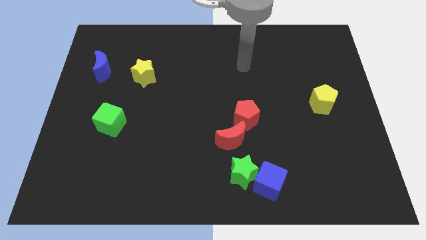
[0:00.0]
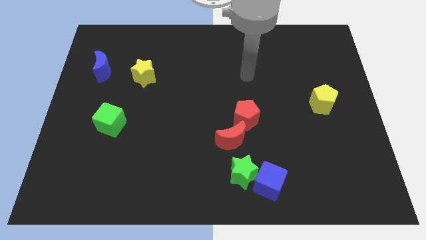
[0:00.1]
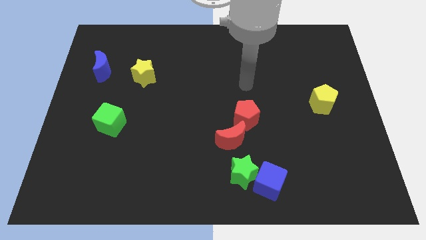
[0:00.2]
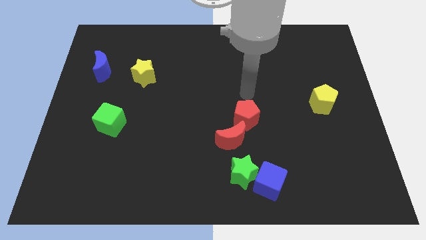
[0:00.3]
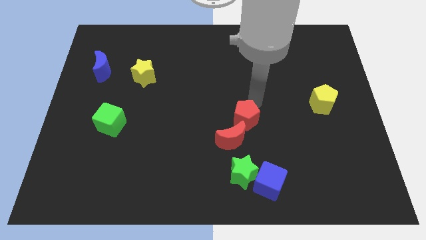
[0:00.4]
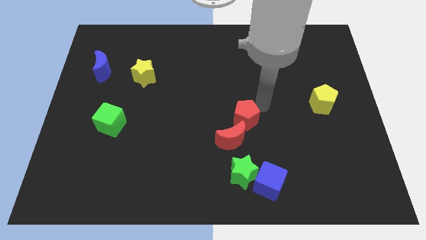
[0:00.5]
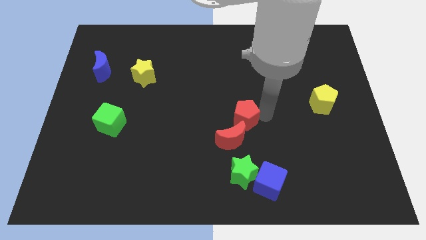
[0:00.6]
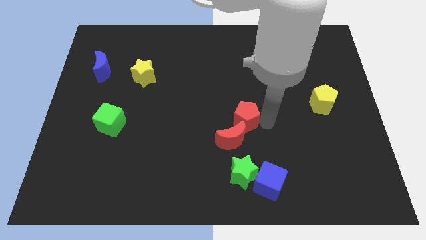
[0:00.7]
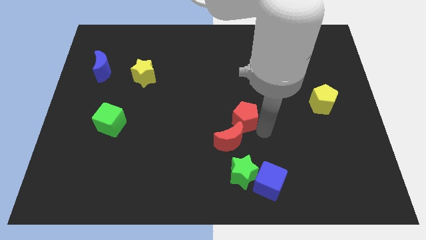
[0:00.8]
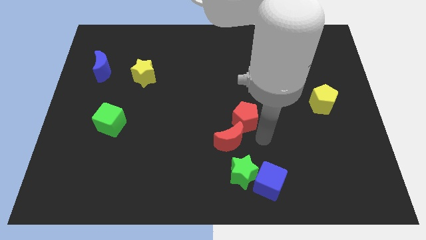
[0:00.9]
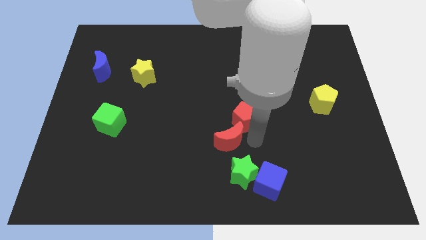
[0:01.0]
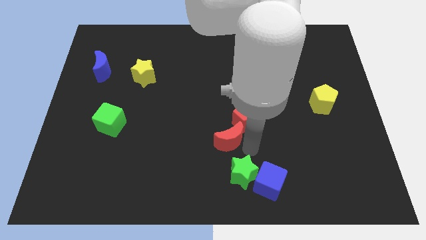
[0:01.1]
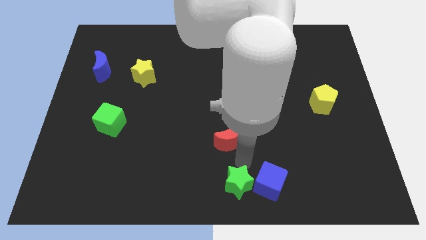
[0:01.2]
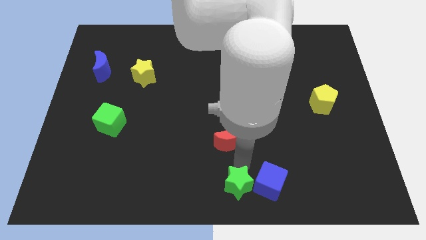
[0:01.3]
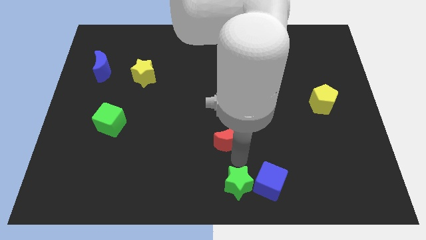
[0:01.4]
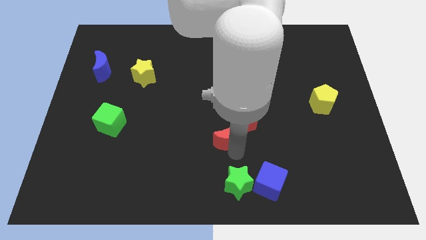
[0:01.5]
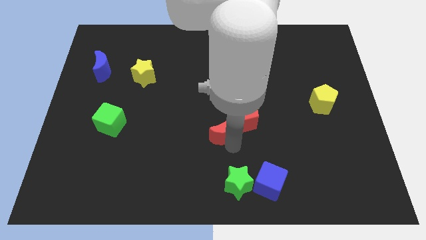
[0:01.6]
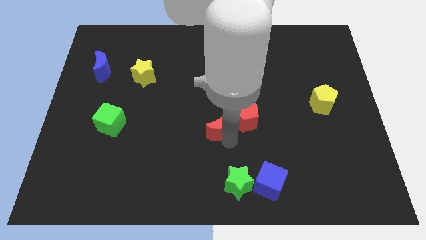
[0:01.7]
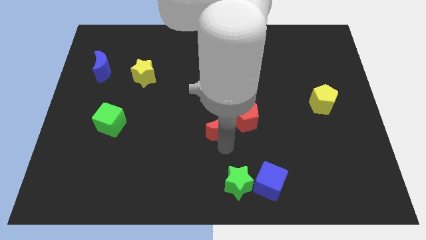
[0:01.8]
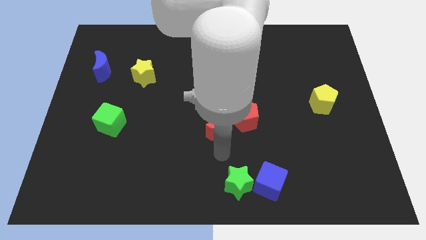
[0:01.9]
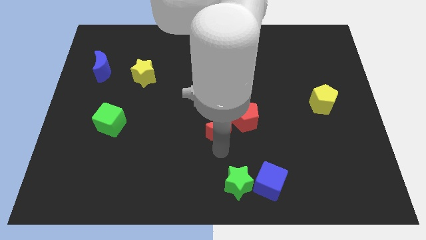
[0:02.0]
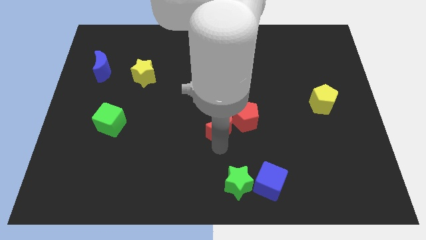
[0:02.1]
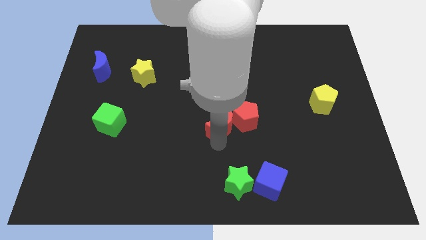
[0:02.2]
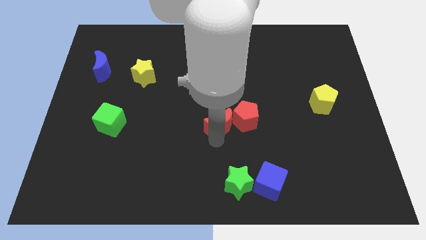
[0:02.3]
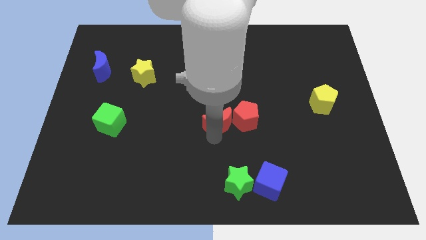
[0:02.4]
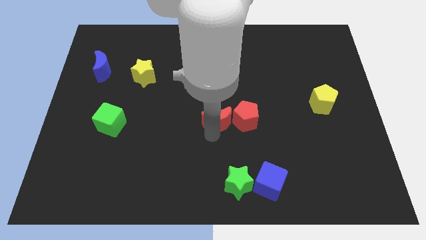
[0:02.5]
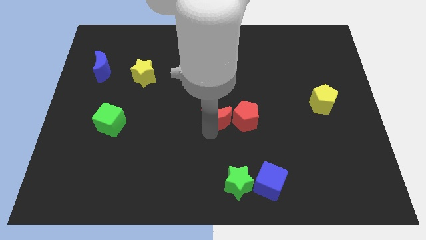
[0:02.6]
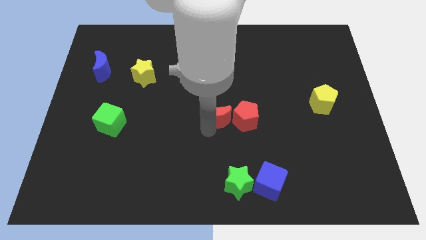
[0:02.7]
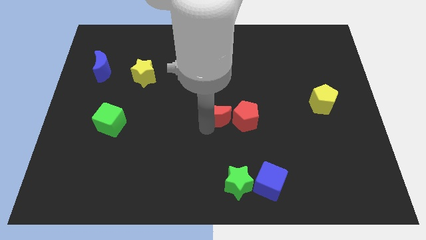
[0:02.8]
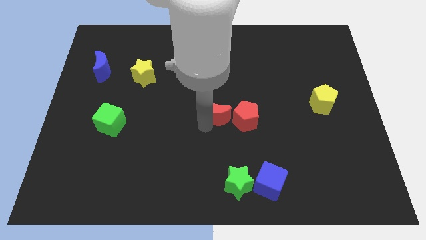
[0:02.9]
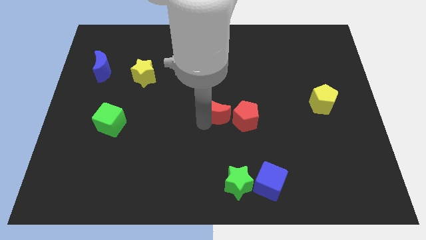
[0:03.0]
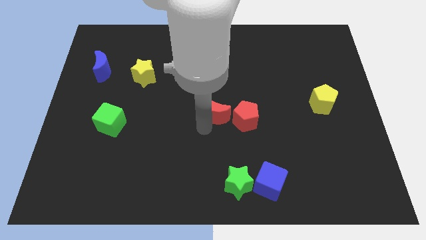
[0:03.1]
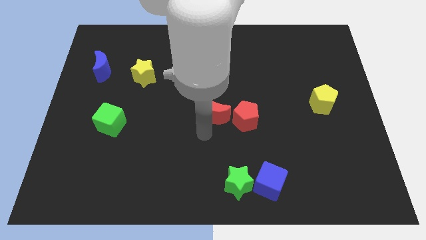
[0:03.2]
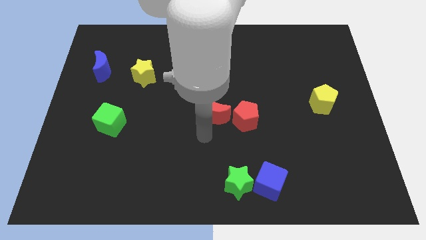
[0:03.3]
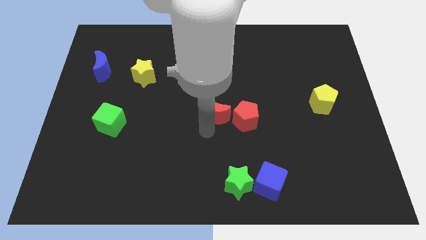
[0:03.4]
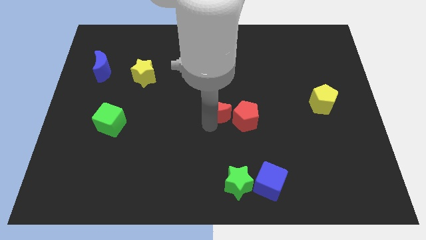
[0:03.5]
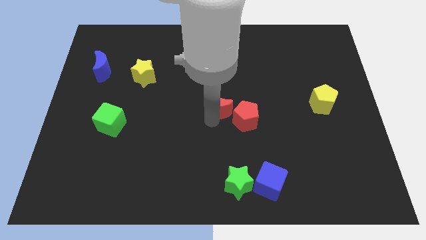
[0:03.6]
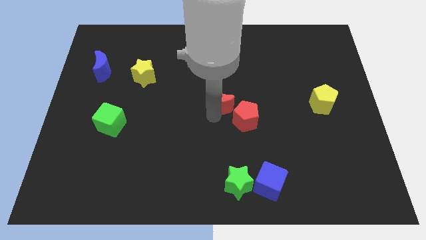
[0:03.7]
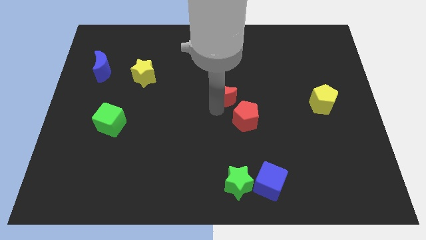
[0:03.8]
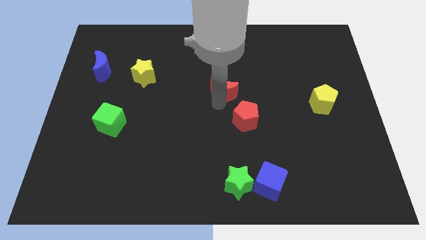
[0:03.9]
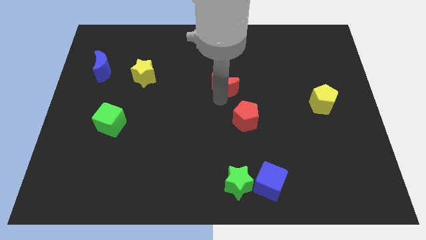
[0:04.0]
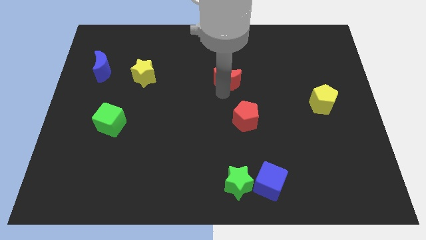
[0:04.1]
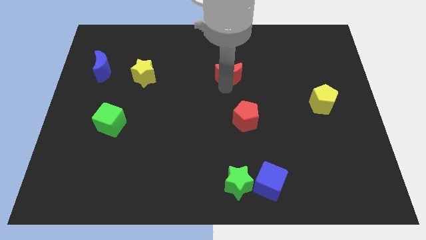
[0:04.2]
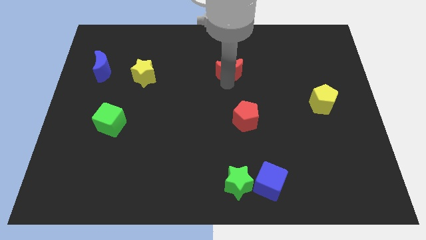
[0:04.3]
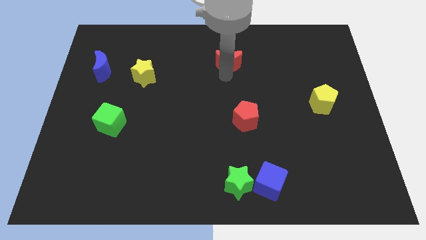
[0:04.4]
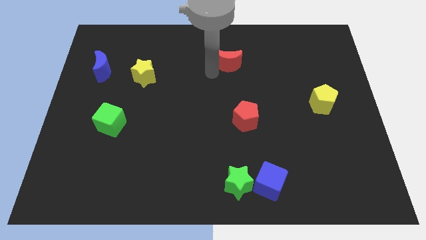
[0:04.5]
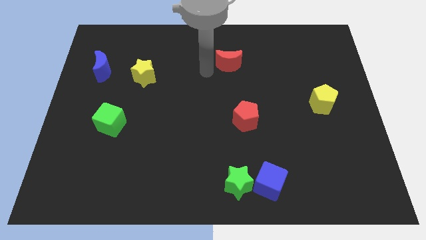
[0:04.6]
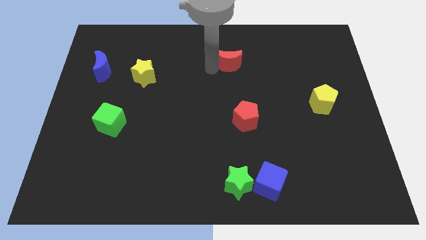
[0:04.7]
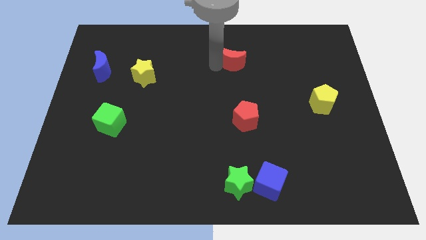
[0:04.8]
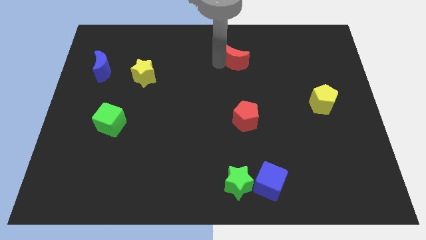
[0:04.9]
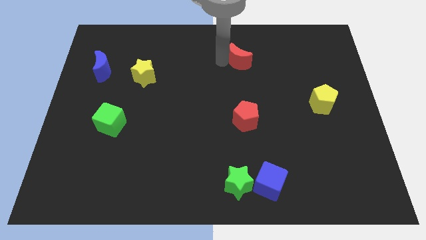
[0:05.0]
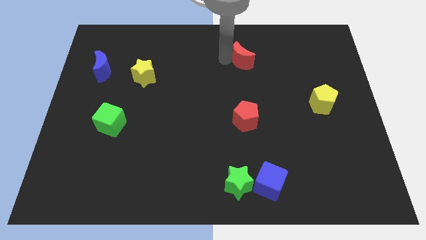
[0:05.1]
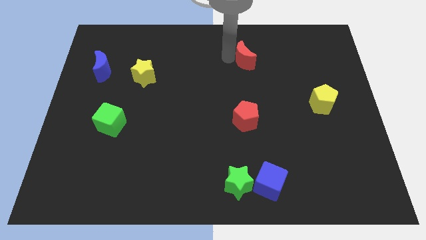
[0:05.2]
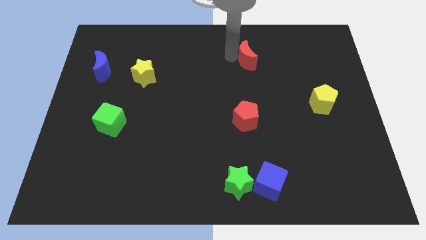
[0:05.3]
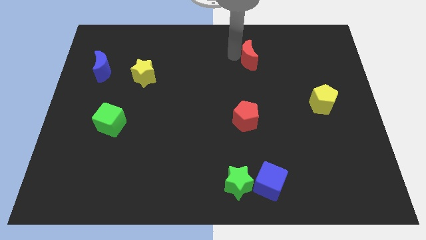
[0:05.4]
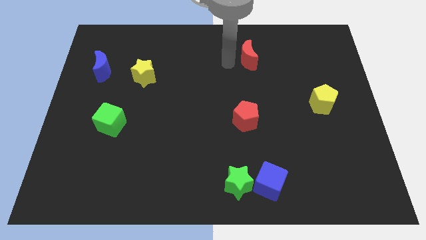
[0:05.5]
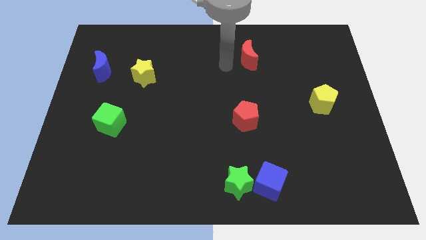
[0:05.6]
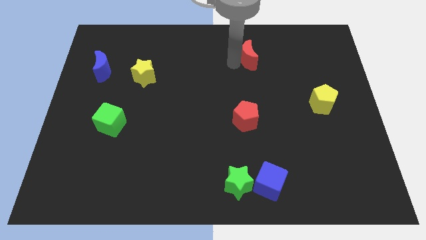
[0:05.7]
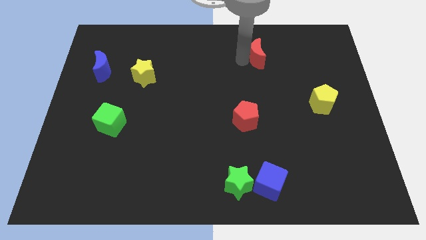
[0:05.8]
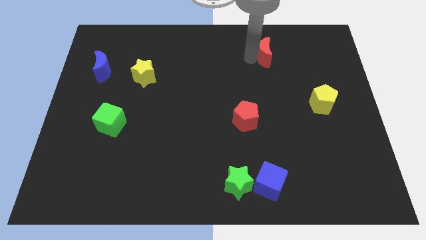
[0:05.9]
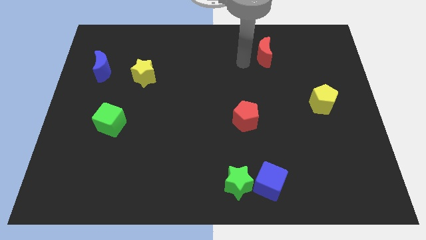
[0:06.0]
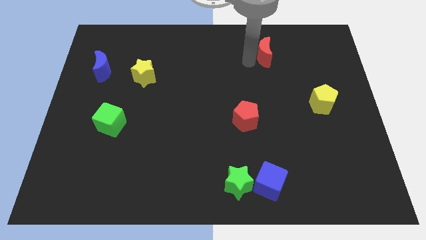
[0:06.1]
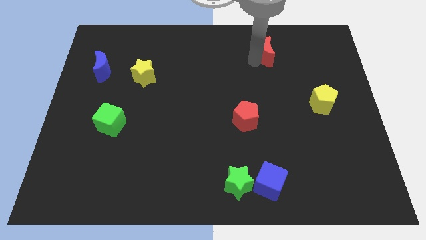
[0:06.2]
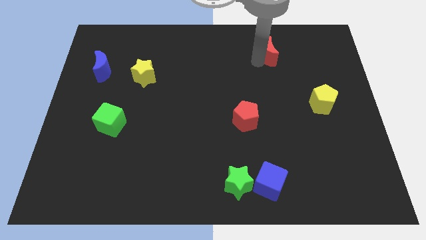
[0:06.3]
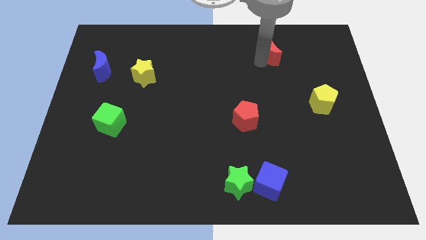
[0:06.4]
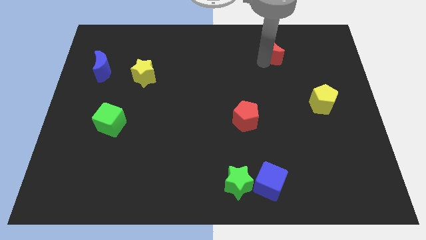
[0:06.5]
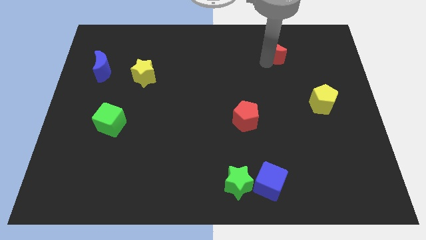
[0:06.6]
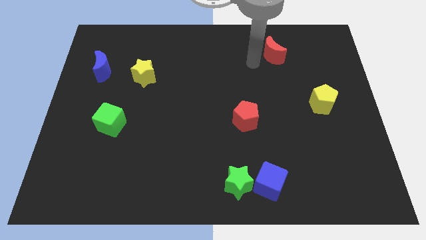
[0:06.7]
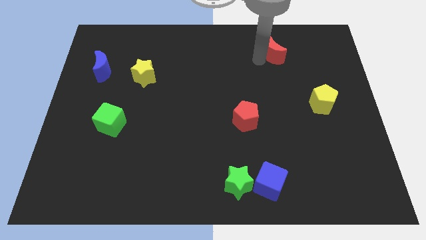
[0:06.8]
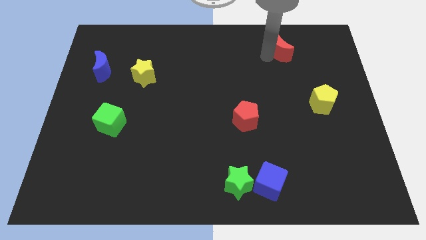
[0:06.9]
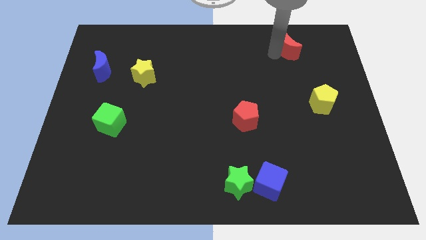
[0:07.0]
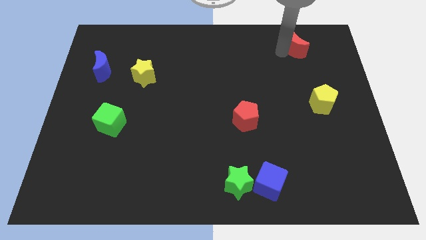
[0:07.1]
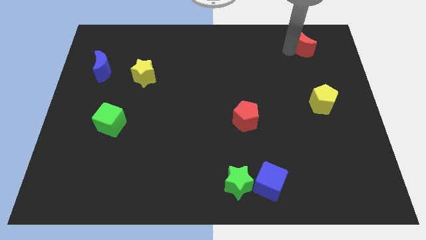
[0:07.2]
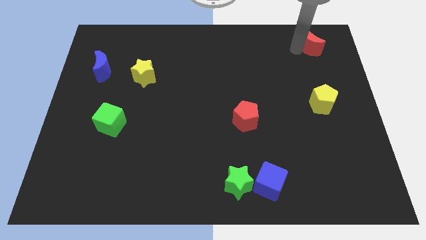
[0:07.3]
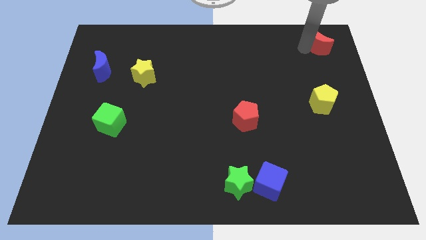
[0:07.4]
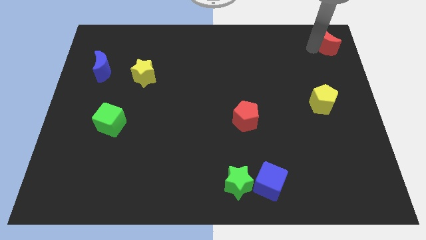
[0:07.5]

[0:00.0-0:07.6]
push the red moon to the top right corner
